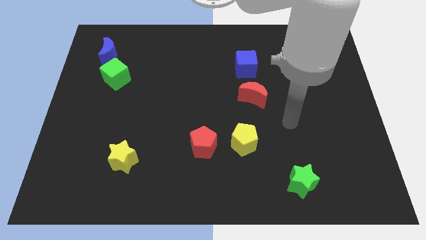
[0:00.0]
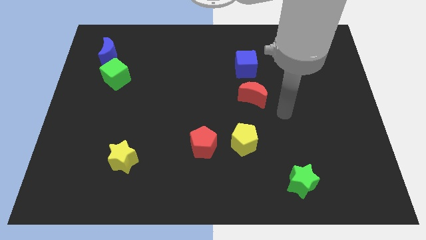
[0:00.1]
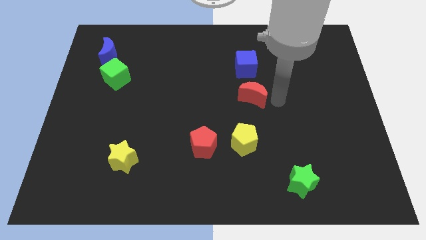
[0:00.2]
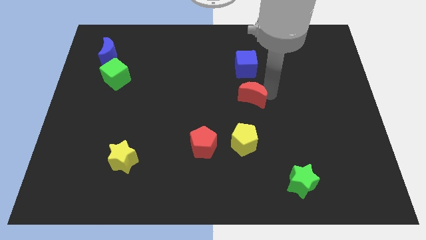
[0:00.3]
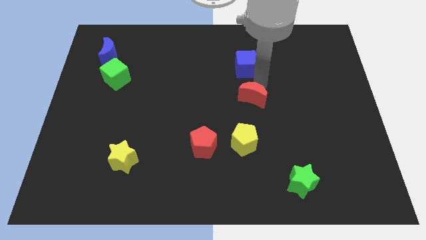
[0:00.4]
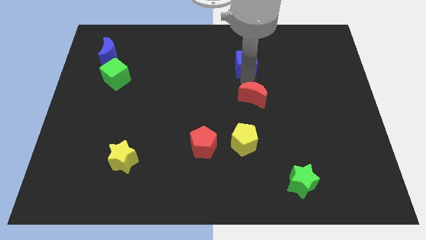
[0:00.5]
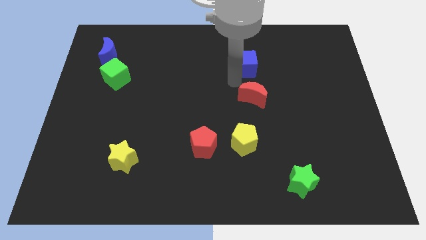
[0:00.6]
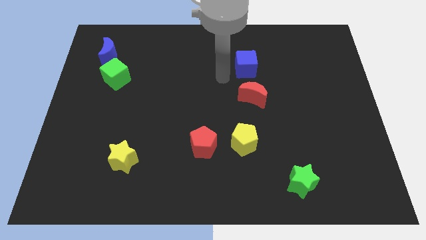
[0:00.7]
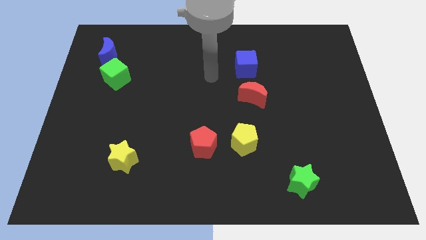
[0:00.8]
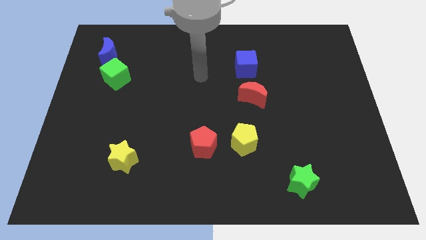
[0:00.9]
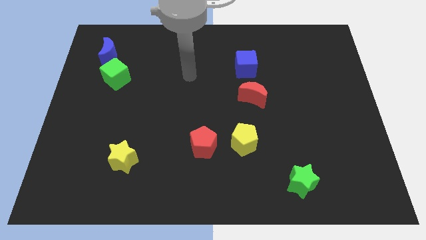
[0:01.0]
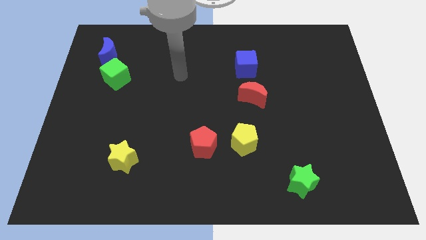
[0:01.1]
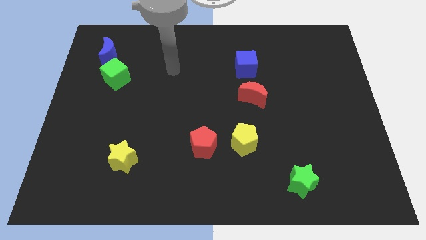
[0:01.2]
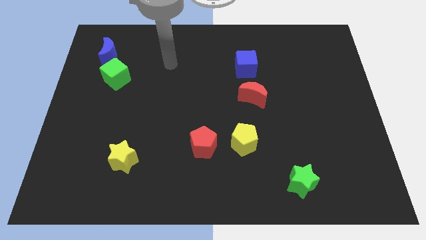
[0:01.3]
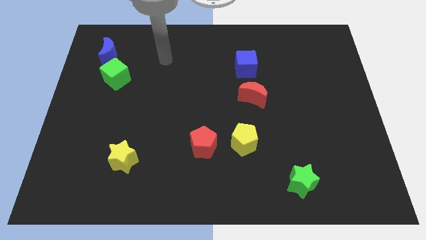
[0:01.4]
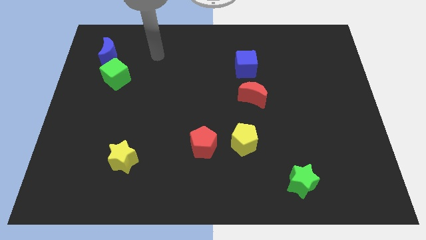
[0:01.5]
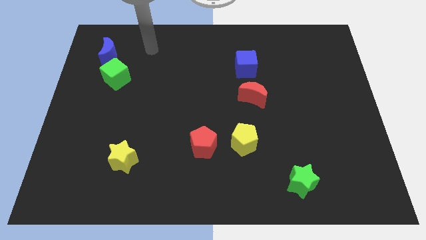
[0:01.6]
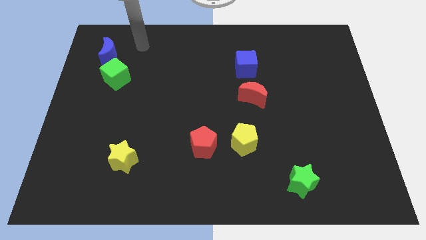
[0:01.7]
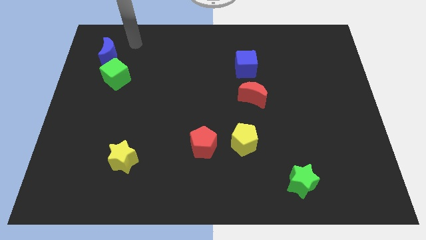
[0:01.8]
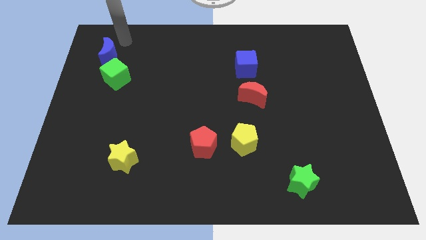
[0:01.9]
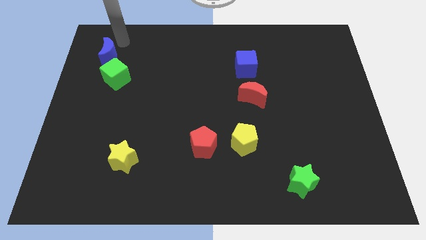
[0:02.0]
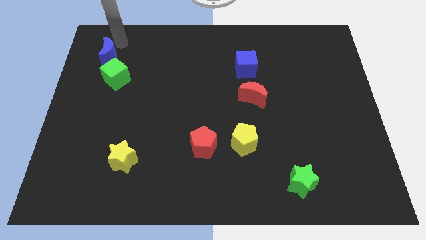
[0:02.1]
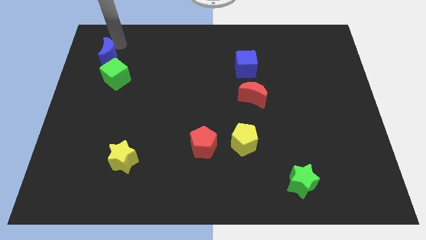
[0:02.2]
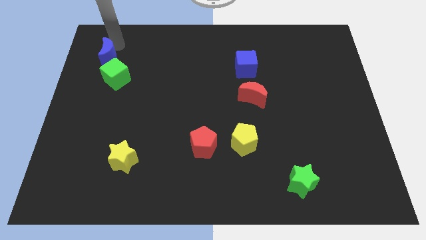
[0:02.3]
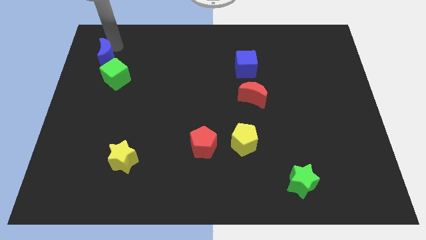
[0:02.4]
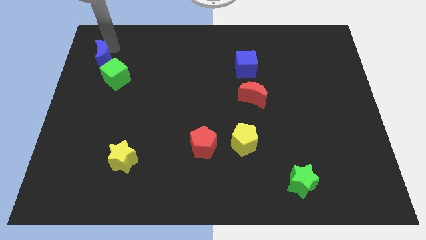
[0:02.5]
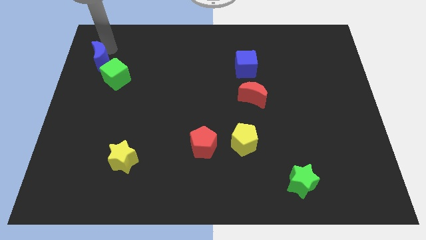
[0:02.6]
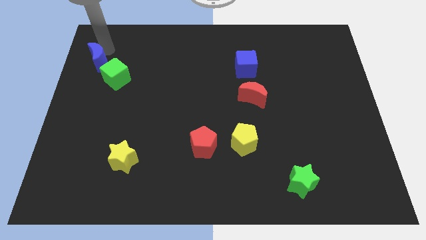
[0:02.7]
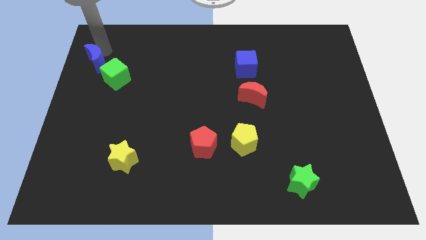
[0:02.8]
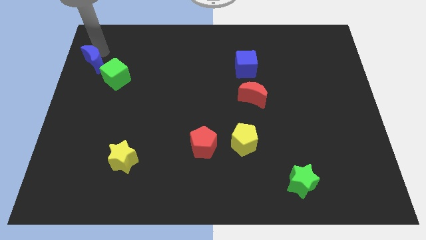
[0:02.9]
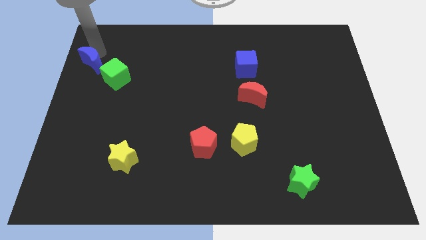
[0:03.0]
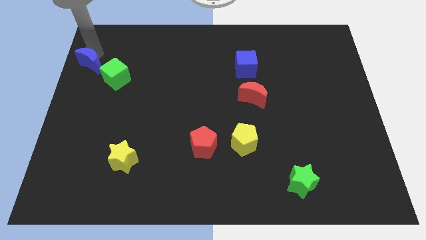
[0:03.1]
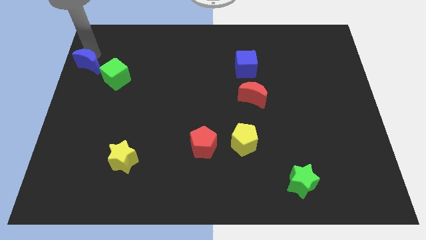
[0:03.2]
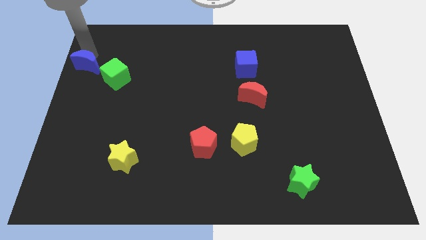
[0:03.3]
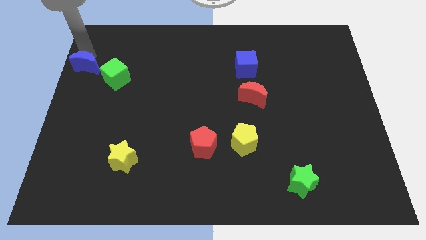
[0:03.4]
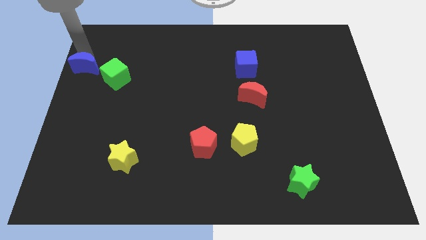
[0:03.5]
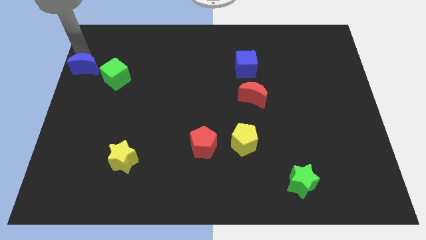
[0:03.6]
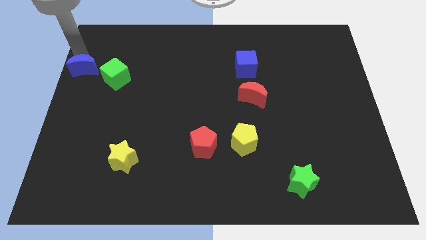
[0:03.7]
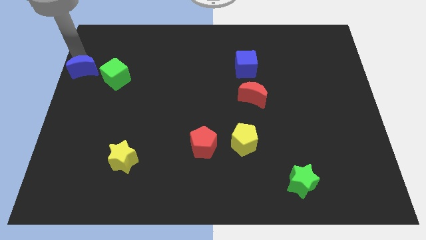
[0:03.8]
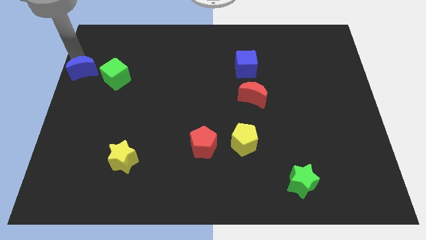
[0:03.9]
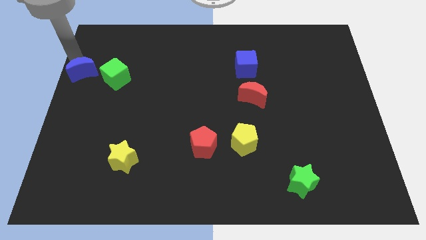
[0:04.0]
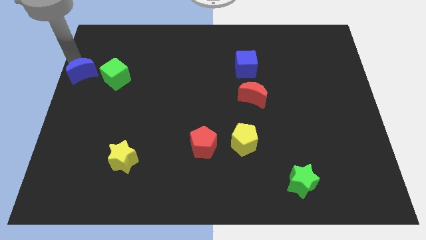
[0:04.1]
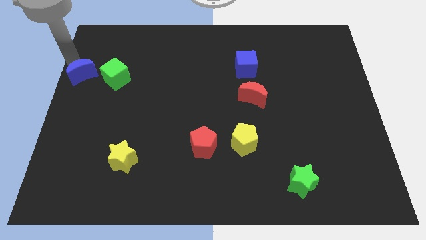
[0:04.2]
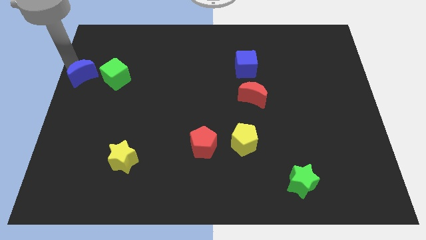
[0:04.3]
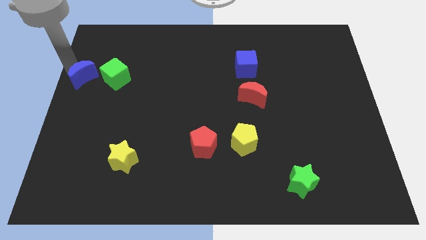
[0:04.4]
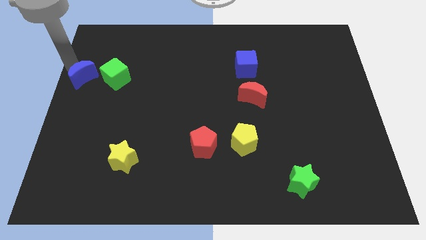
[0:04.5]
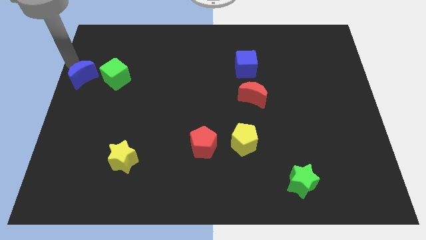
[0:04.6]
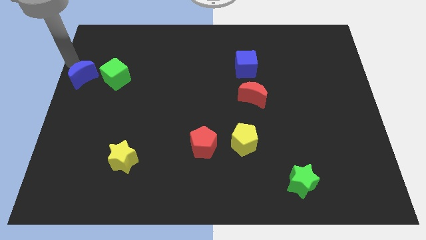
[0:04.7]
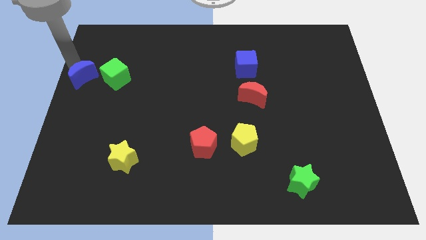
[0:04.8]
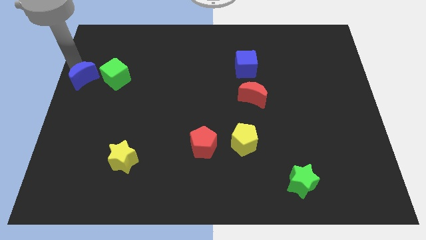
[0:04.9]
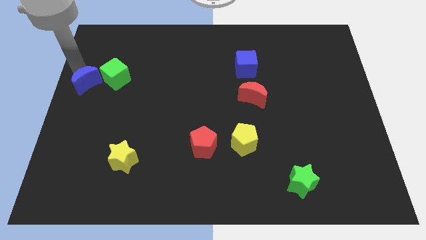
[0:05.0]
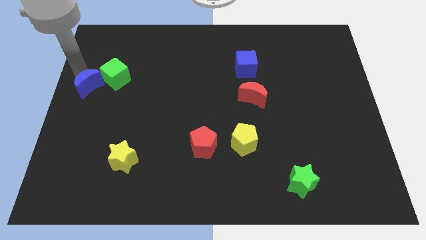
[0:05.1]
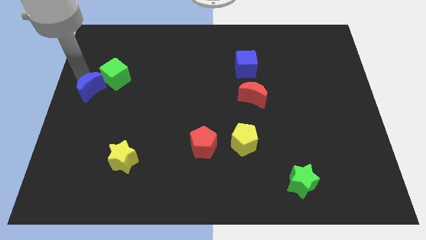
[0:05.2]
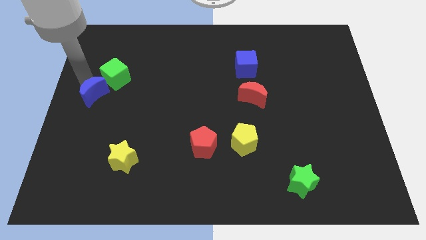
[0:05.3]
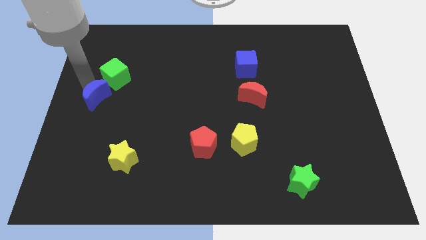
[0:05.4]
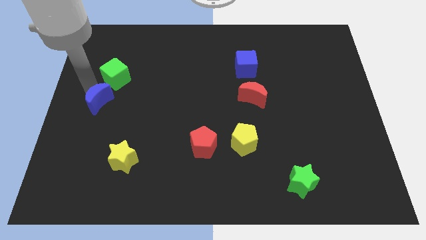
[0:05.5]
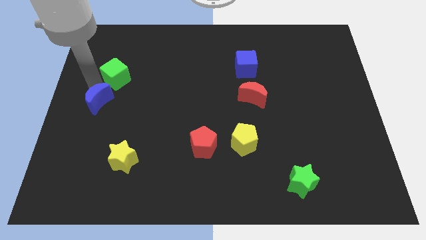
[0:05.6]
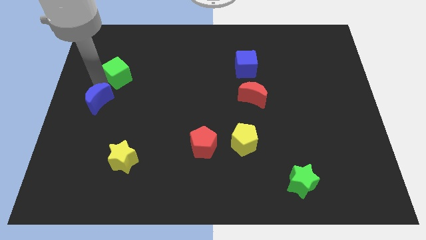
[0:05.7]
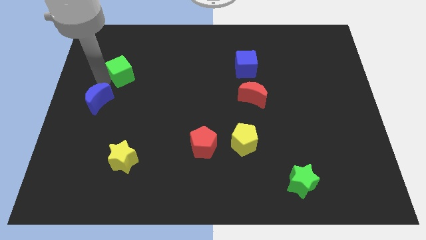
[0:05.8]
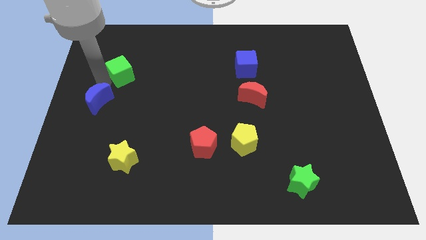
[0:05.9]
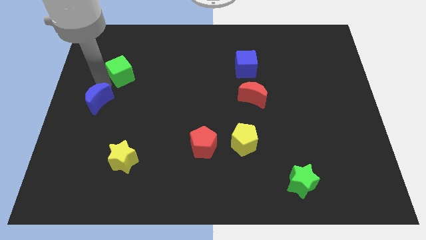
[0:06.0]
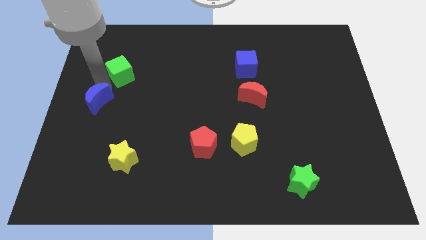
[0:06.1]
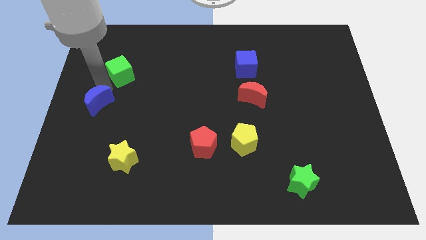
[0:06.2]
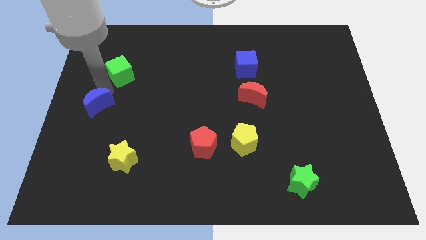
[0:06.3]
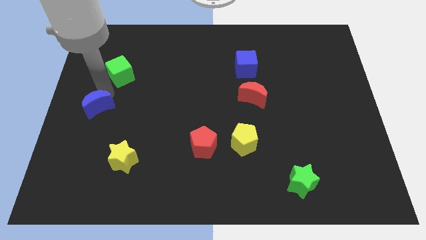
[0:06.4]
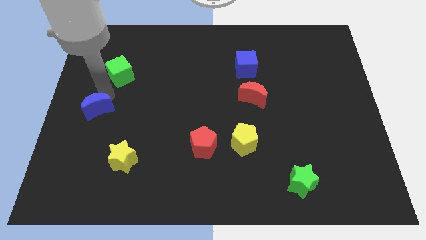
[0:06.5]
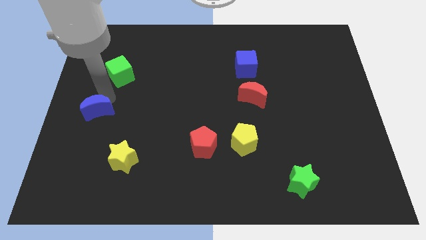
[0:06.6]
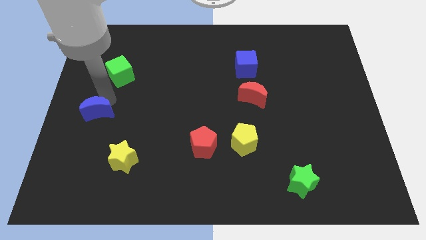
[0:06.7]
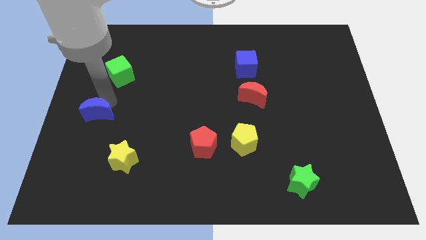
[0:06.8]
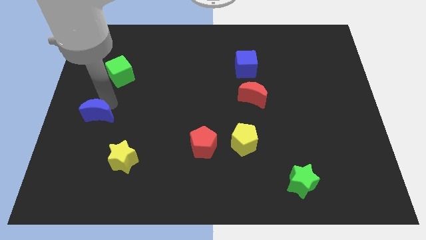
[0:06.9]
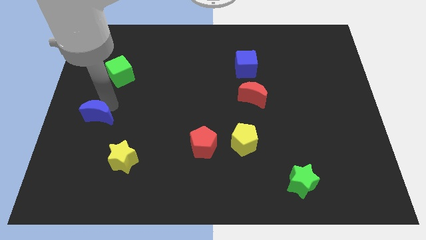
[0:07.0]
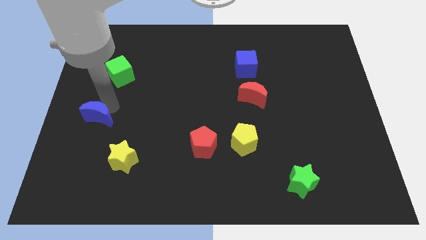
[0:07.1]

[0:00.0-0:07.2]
push the blue moon down

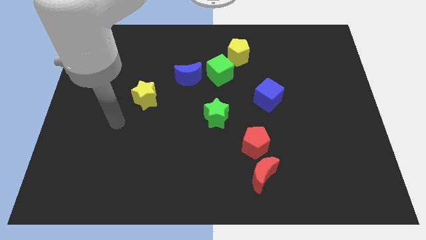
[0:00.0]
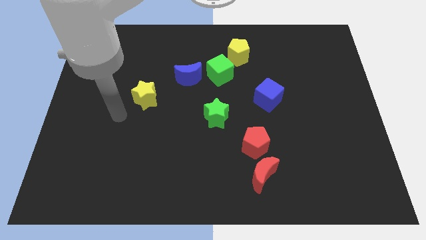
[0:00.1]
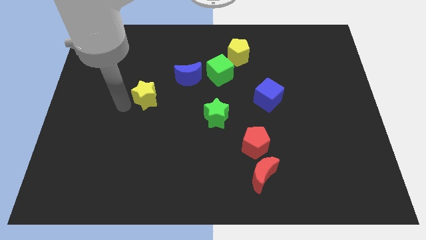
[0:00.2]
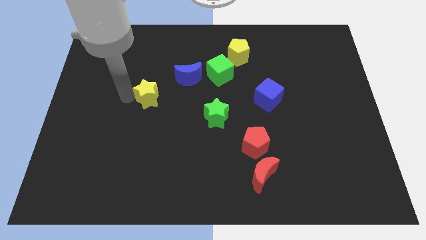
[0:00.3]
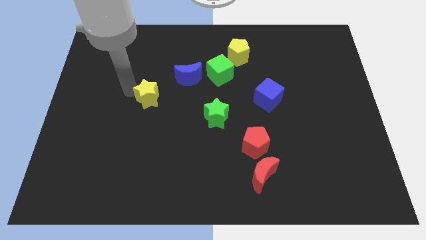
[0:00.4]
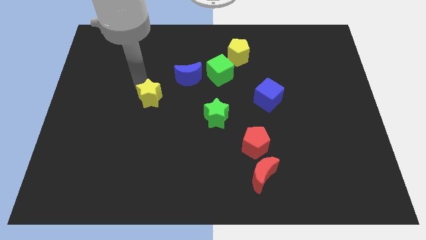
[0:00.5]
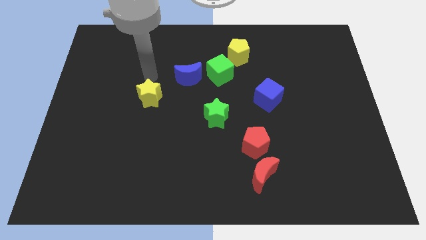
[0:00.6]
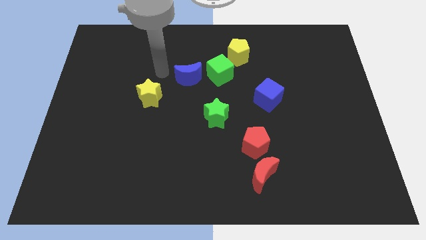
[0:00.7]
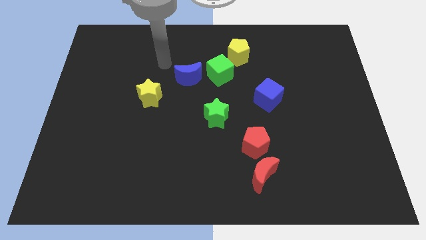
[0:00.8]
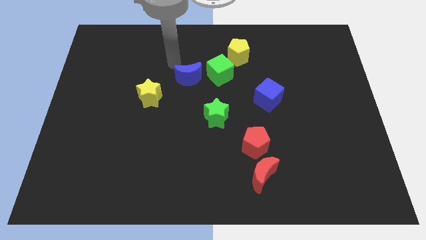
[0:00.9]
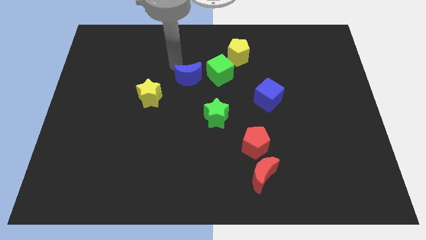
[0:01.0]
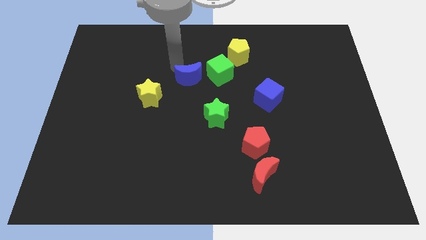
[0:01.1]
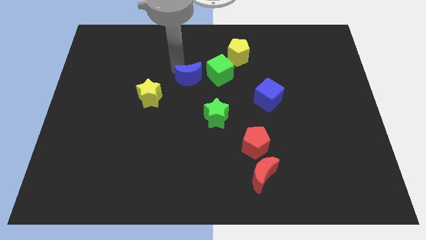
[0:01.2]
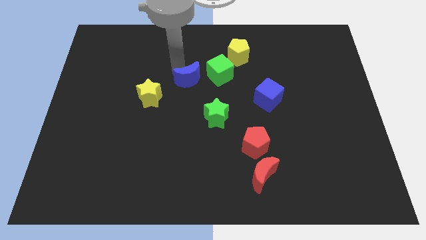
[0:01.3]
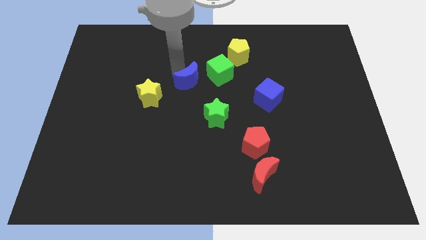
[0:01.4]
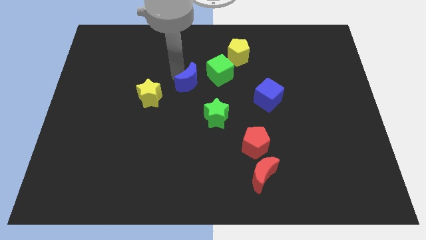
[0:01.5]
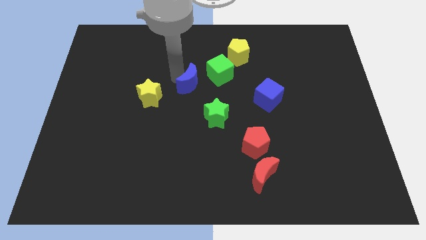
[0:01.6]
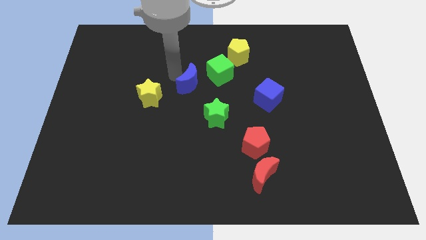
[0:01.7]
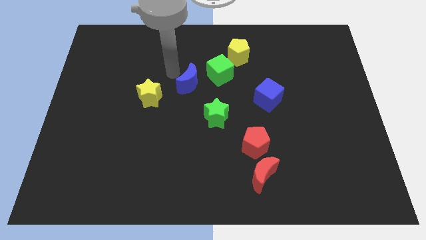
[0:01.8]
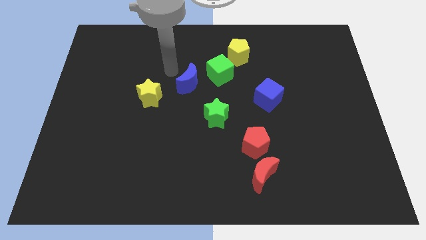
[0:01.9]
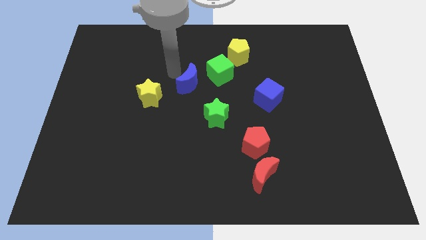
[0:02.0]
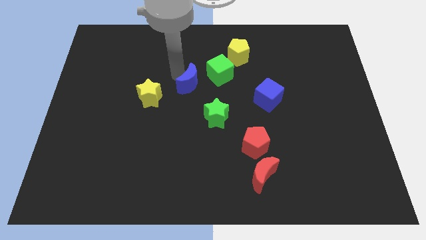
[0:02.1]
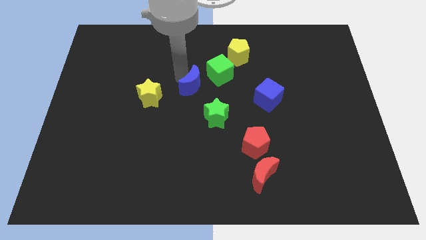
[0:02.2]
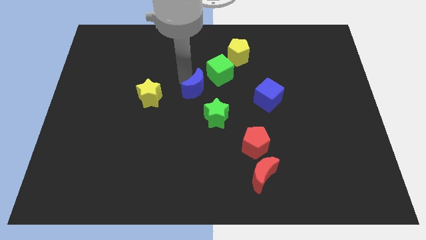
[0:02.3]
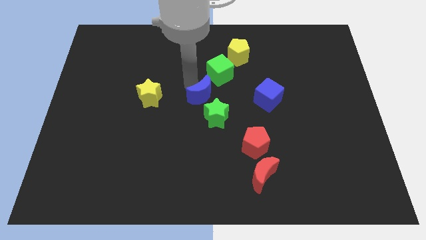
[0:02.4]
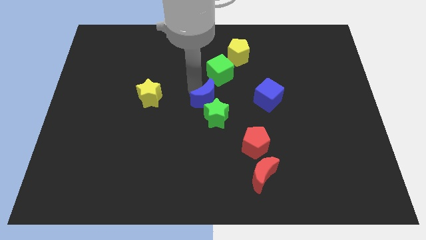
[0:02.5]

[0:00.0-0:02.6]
push the blue moon somewhat down and right
